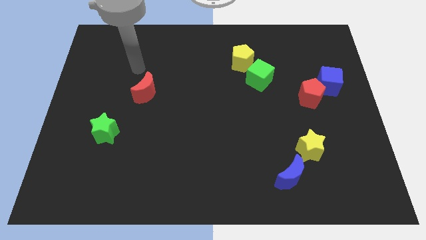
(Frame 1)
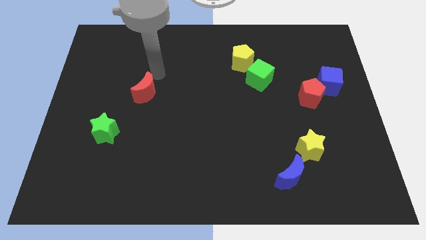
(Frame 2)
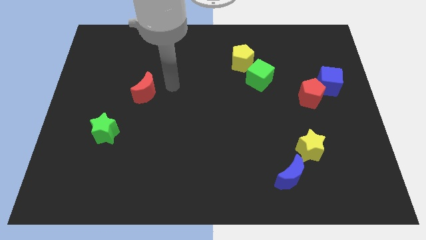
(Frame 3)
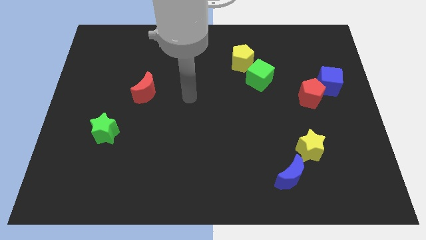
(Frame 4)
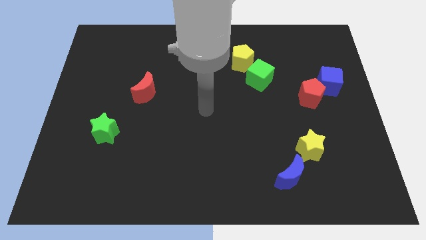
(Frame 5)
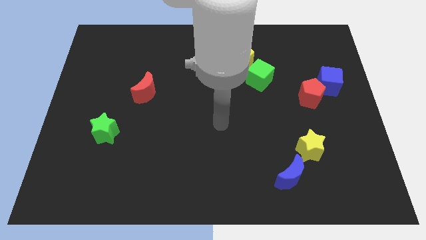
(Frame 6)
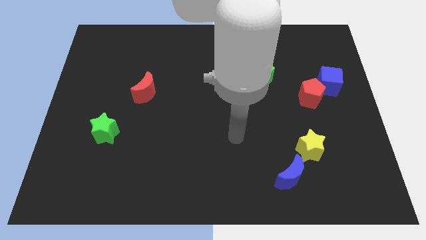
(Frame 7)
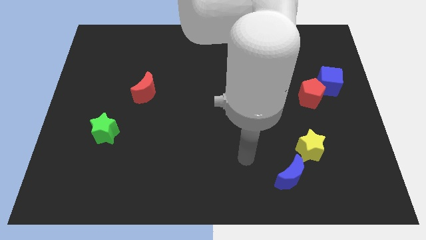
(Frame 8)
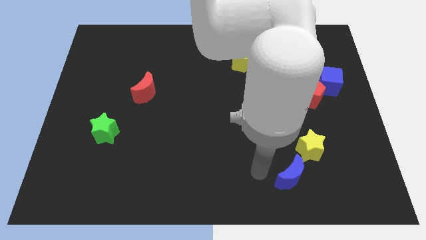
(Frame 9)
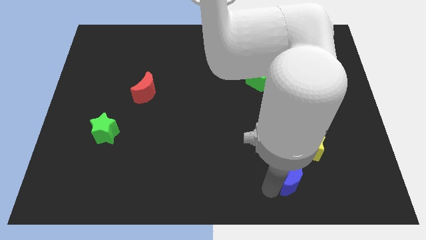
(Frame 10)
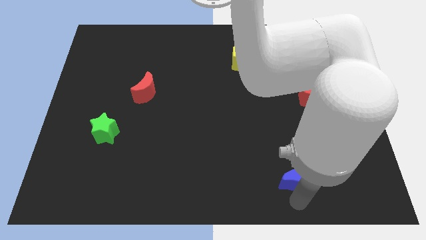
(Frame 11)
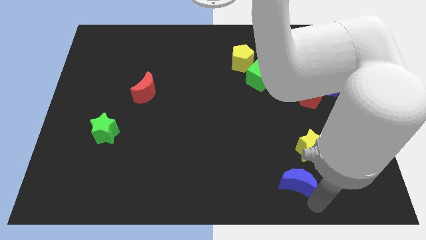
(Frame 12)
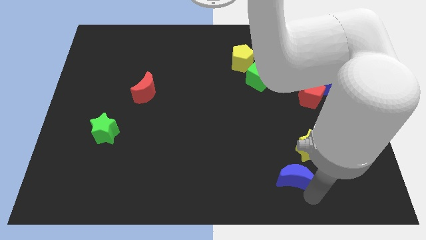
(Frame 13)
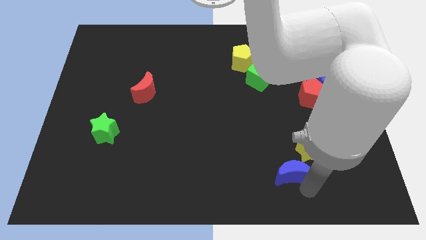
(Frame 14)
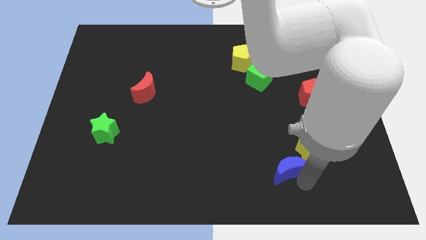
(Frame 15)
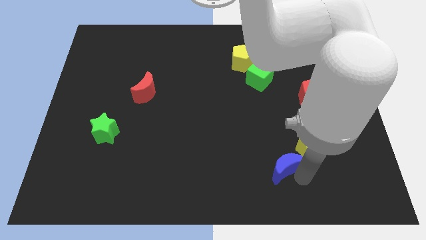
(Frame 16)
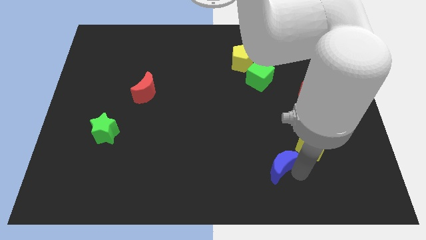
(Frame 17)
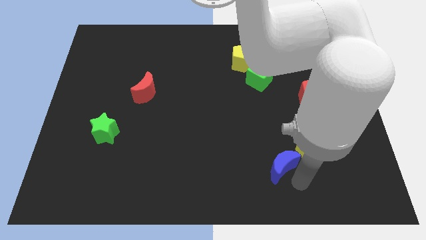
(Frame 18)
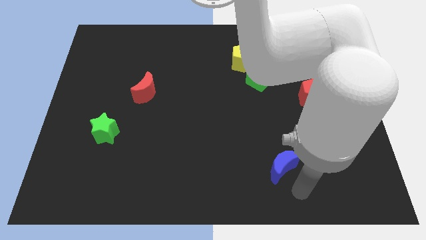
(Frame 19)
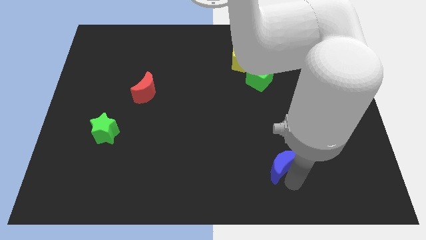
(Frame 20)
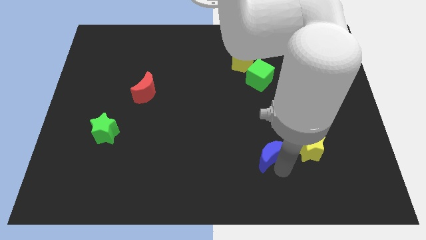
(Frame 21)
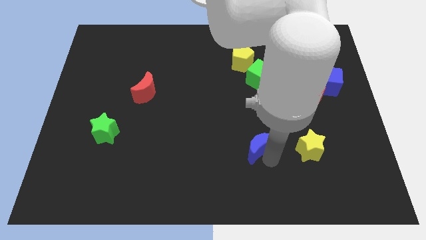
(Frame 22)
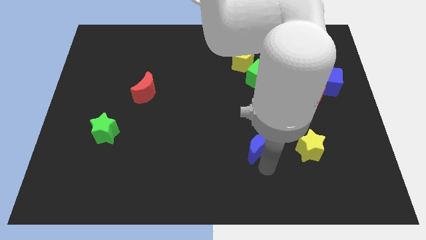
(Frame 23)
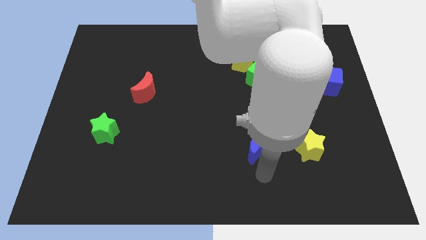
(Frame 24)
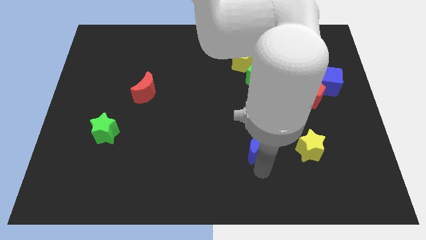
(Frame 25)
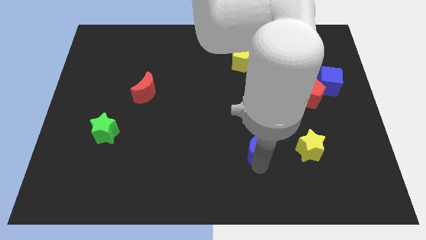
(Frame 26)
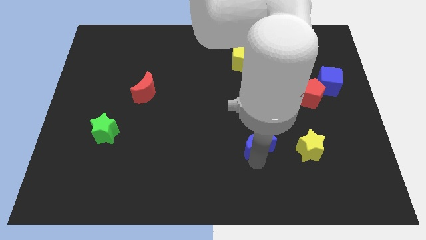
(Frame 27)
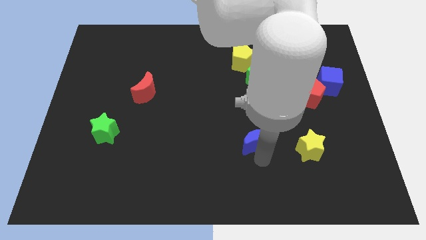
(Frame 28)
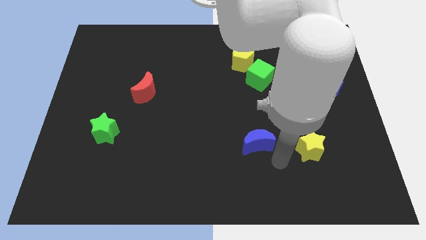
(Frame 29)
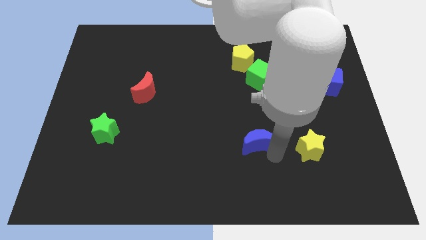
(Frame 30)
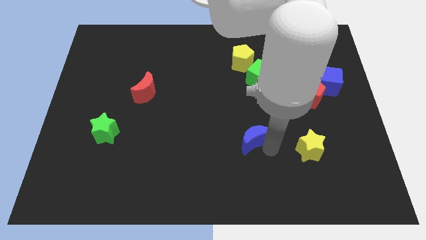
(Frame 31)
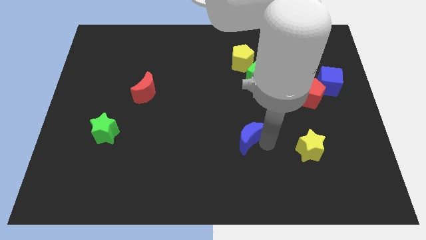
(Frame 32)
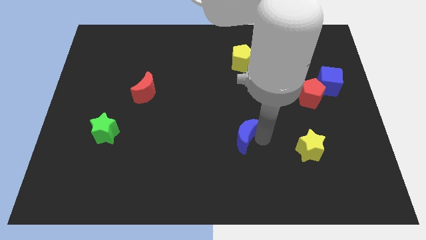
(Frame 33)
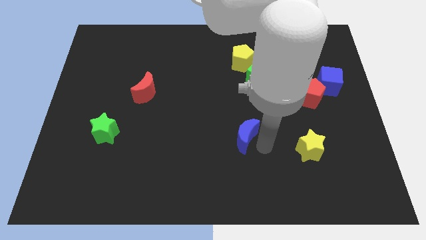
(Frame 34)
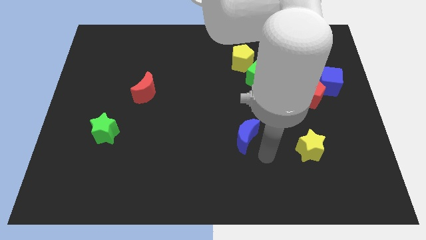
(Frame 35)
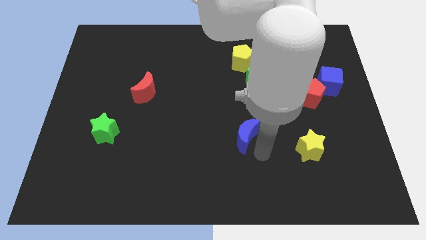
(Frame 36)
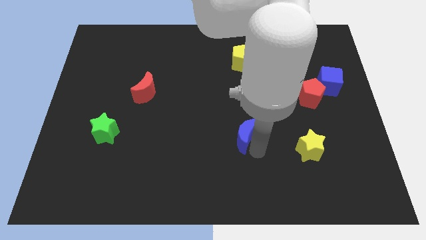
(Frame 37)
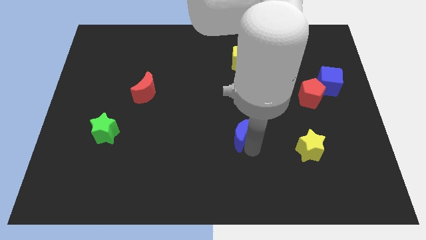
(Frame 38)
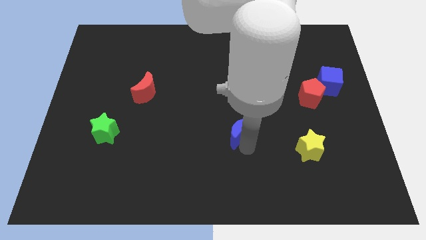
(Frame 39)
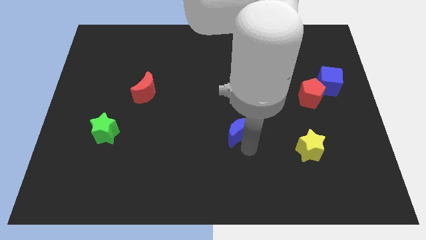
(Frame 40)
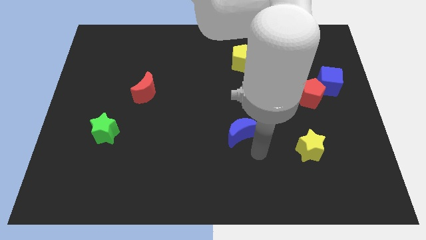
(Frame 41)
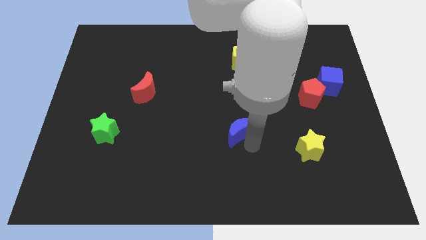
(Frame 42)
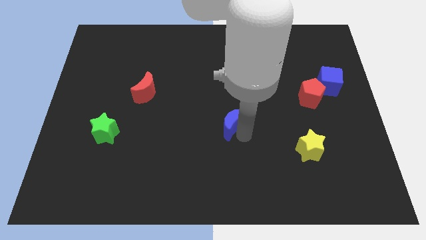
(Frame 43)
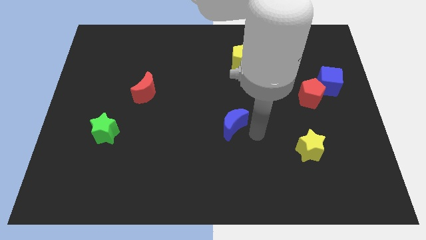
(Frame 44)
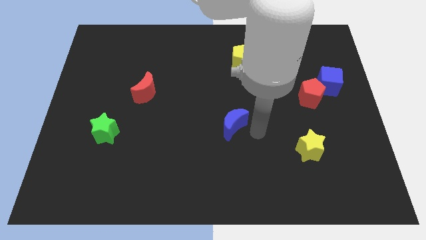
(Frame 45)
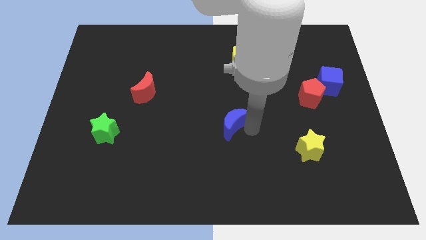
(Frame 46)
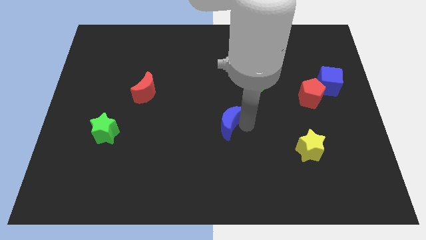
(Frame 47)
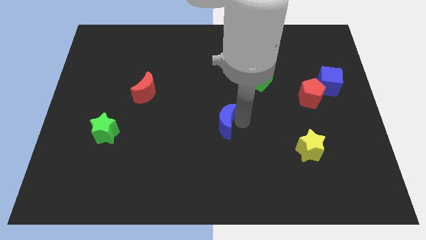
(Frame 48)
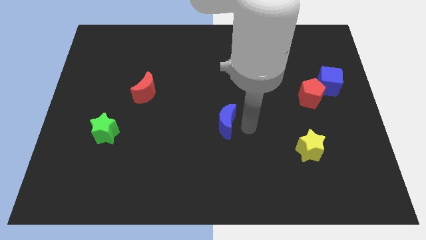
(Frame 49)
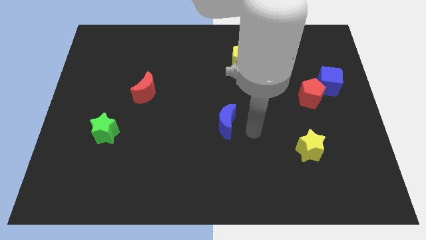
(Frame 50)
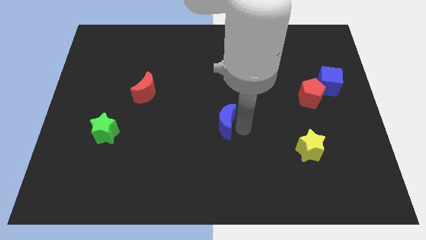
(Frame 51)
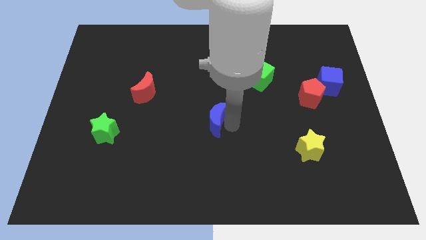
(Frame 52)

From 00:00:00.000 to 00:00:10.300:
slide the blue moon diagonally upwards and left

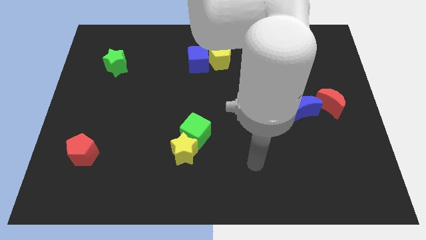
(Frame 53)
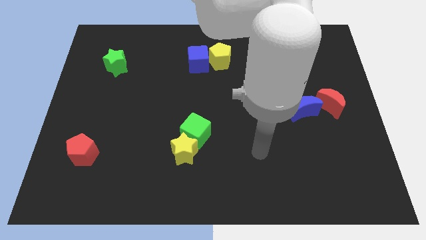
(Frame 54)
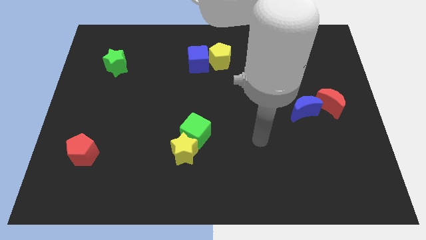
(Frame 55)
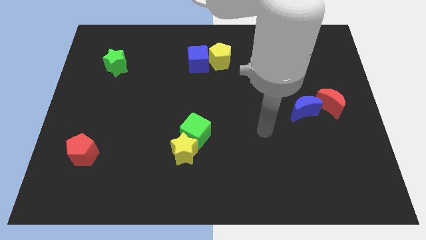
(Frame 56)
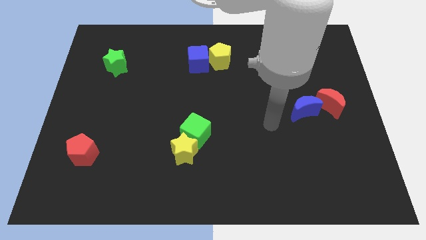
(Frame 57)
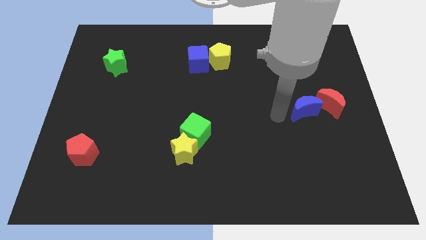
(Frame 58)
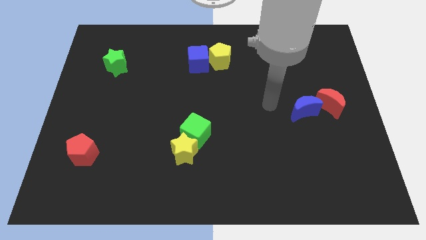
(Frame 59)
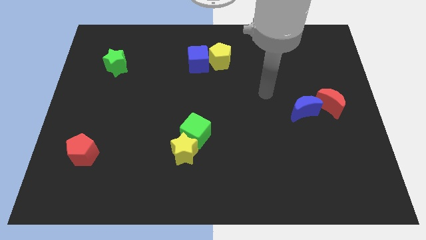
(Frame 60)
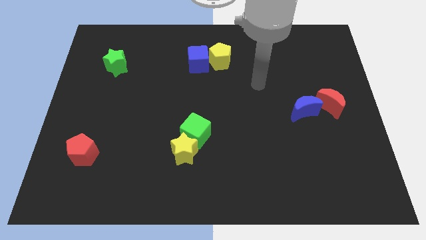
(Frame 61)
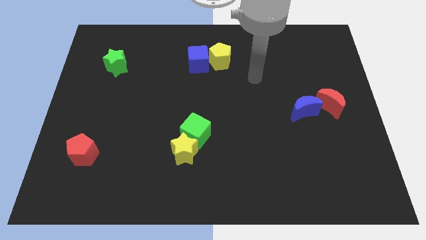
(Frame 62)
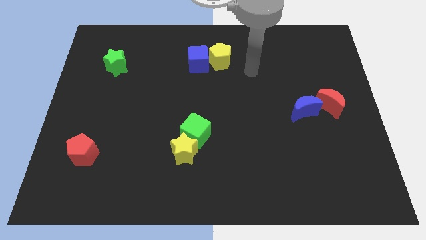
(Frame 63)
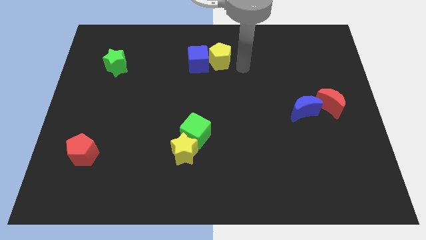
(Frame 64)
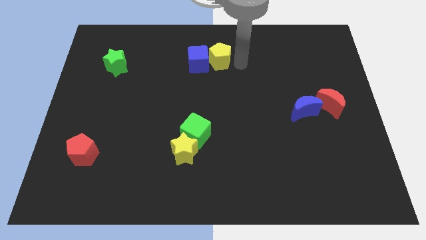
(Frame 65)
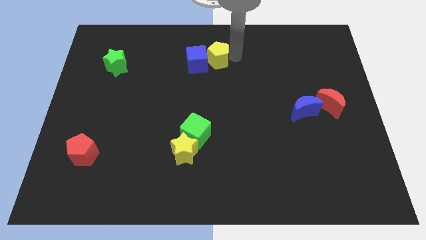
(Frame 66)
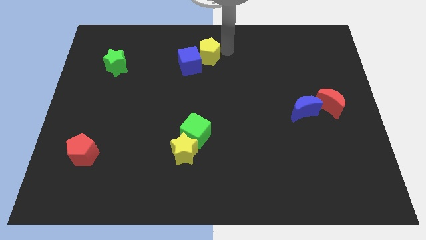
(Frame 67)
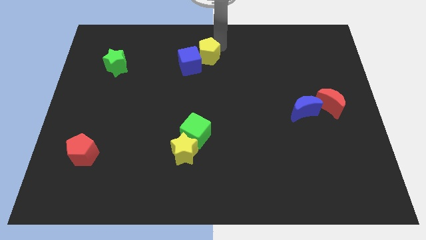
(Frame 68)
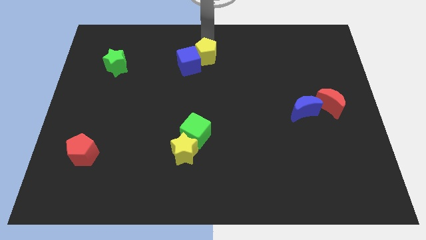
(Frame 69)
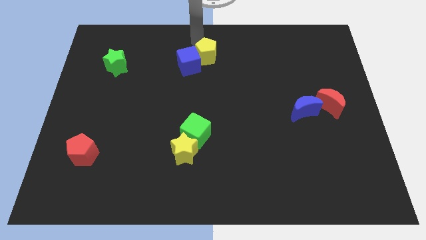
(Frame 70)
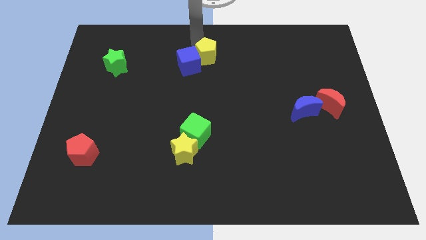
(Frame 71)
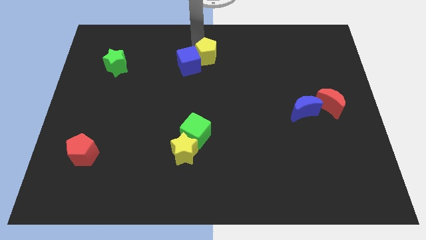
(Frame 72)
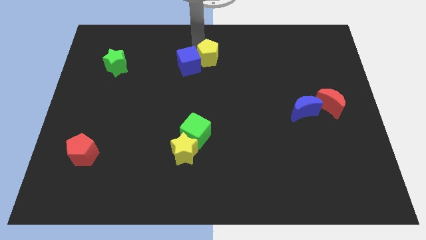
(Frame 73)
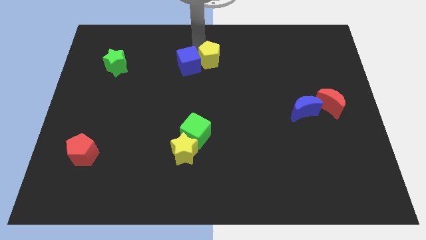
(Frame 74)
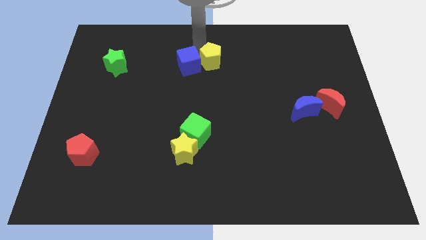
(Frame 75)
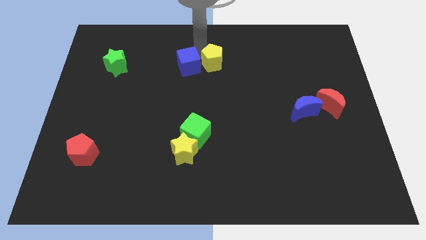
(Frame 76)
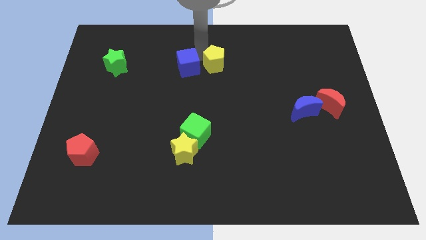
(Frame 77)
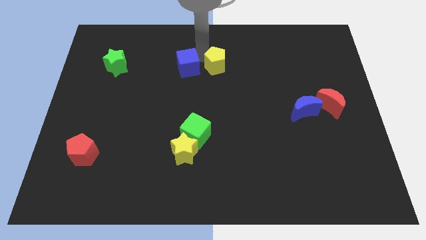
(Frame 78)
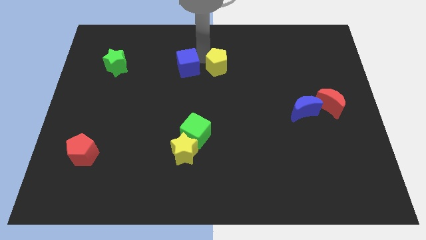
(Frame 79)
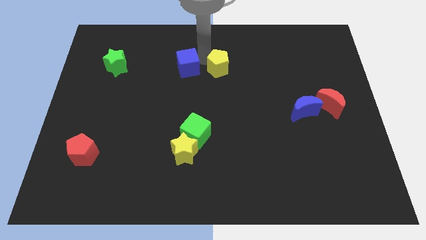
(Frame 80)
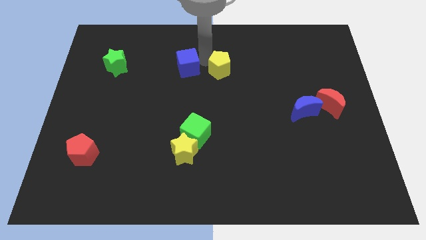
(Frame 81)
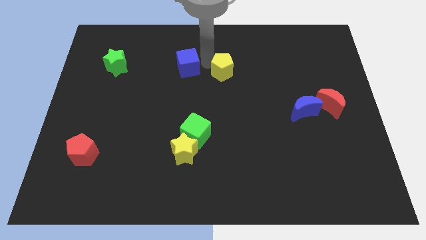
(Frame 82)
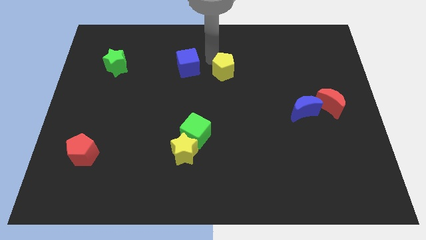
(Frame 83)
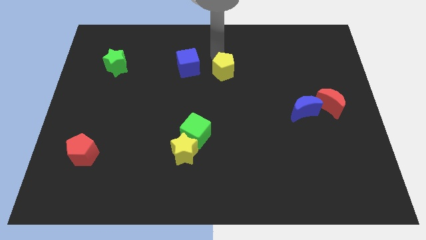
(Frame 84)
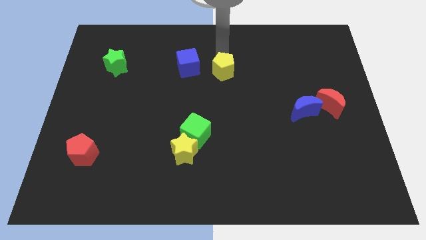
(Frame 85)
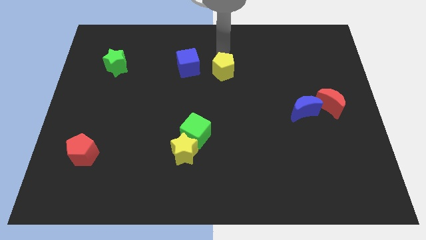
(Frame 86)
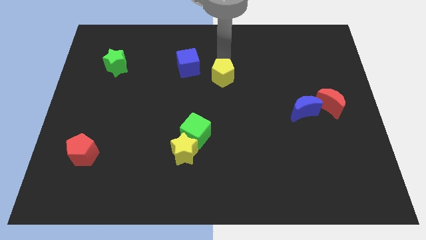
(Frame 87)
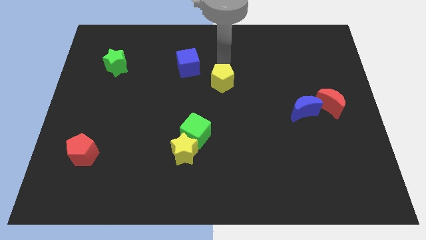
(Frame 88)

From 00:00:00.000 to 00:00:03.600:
push the yellow pentagon down a bit
